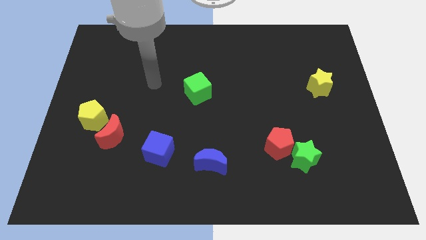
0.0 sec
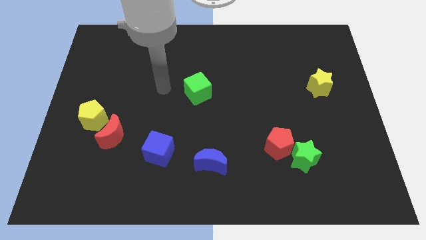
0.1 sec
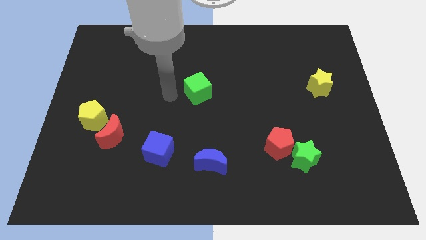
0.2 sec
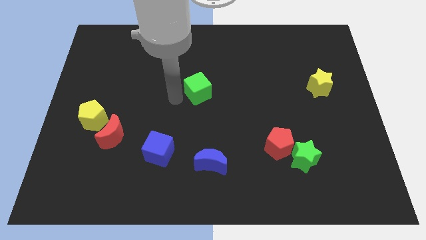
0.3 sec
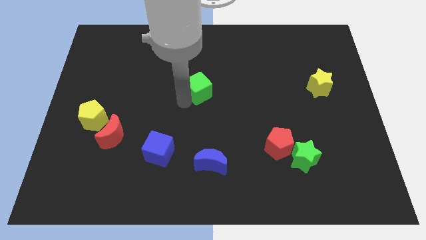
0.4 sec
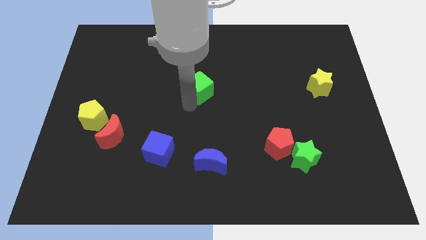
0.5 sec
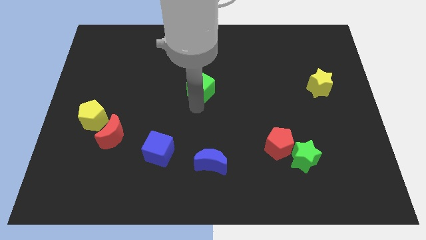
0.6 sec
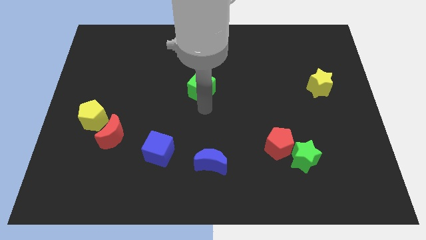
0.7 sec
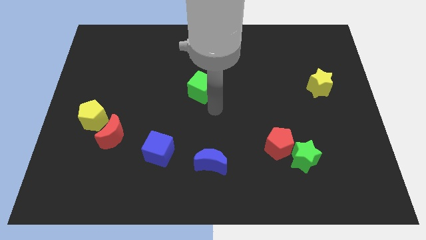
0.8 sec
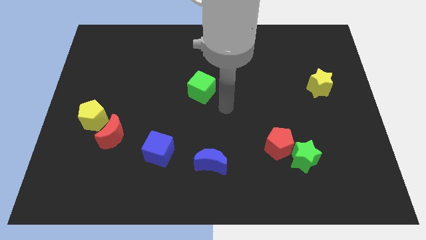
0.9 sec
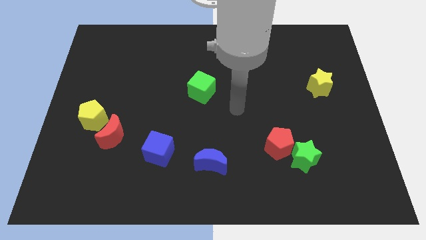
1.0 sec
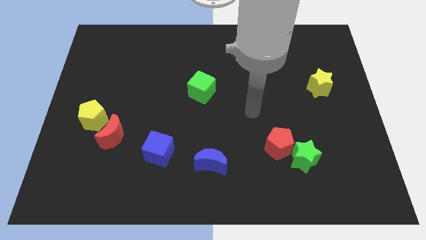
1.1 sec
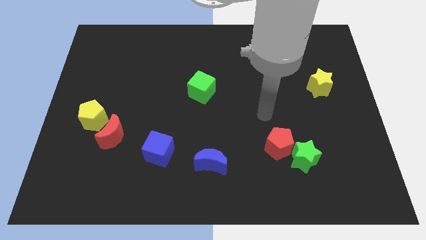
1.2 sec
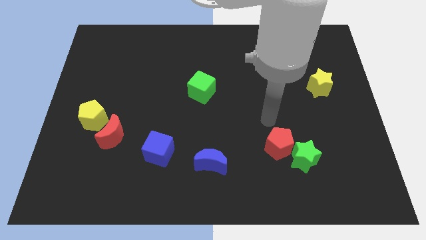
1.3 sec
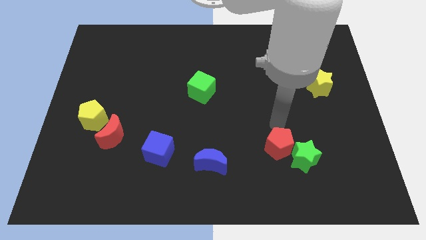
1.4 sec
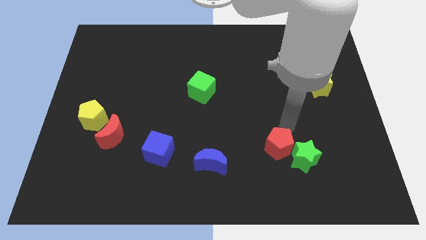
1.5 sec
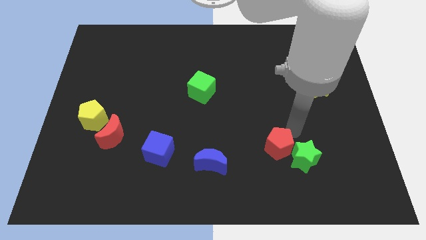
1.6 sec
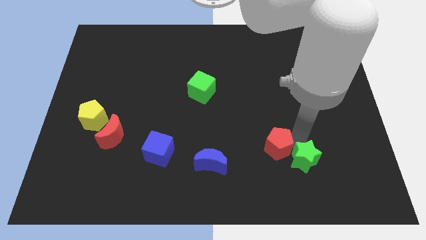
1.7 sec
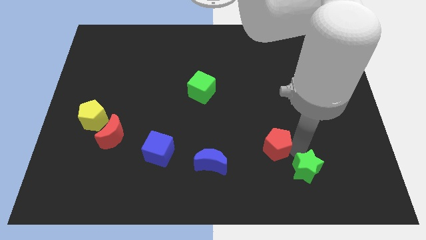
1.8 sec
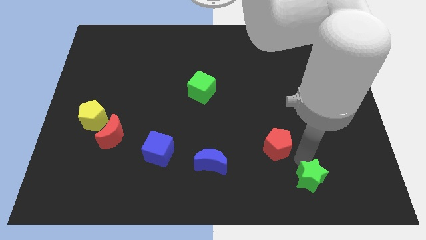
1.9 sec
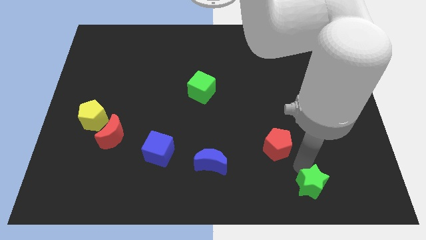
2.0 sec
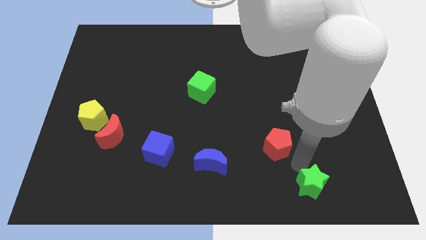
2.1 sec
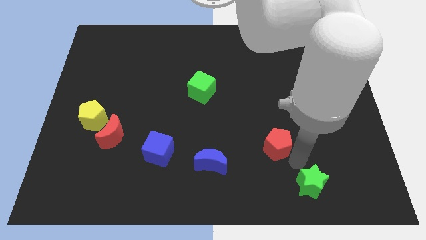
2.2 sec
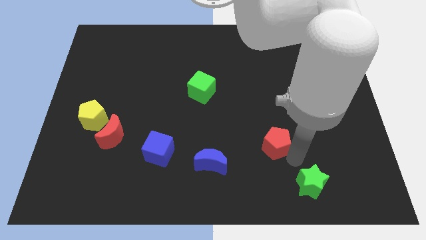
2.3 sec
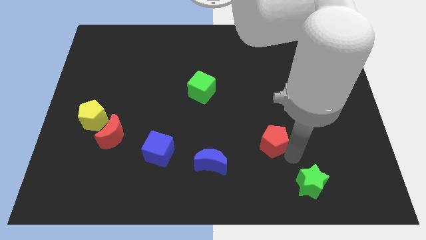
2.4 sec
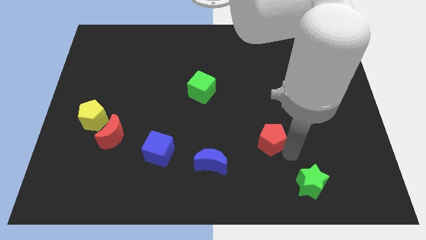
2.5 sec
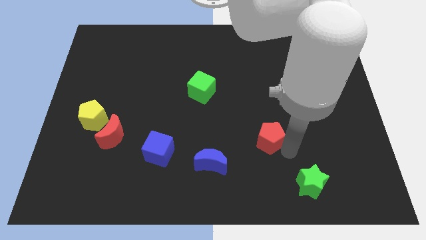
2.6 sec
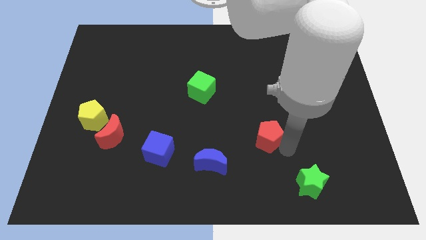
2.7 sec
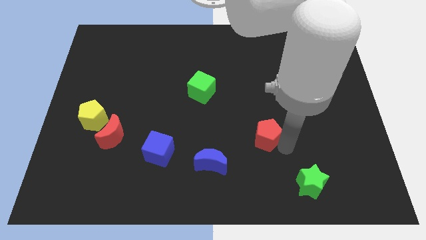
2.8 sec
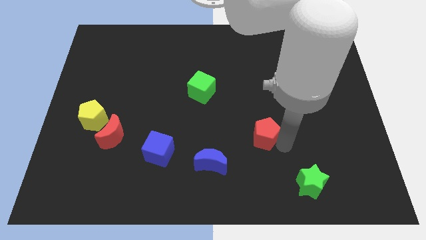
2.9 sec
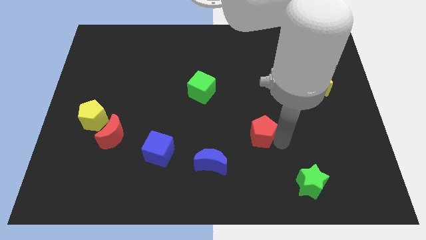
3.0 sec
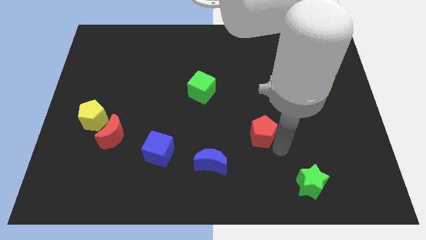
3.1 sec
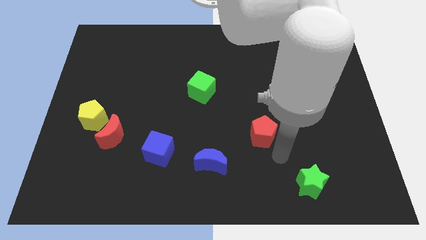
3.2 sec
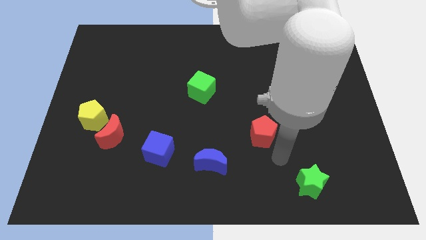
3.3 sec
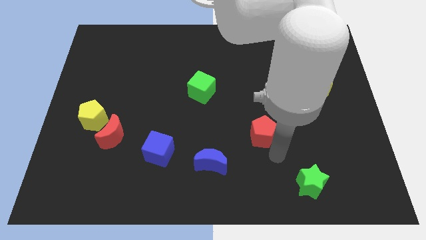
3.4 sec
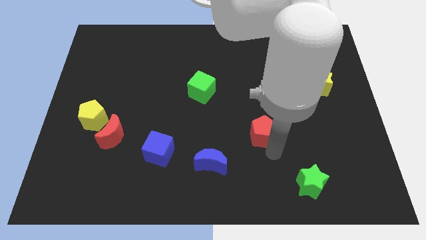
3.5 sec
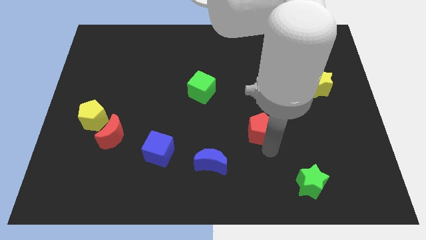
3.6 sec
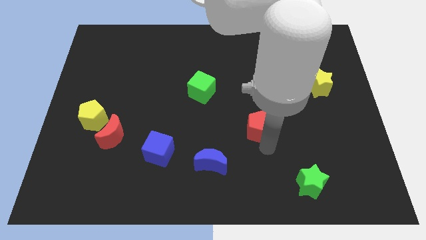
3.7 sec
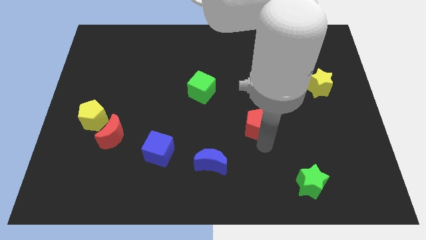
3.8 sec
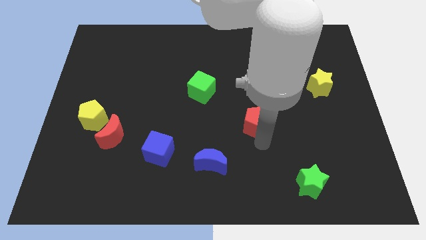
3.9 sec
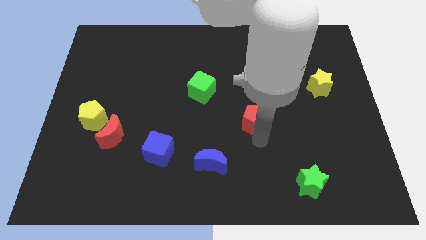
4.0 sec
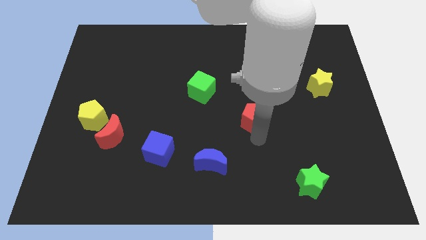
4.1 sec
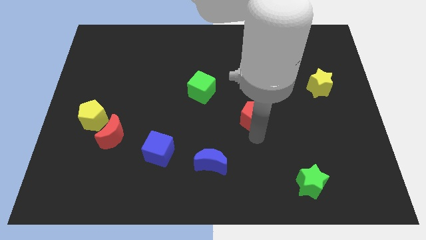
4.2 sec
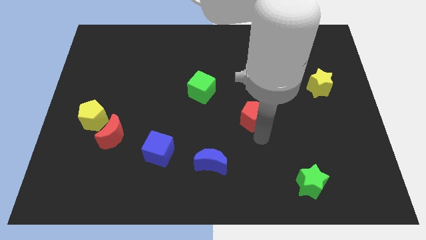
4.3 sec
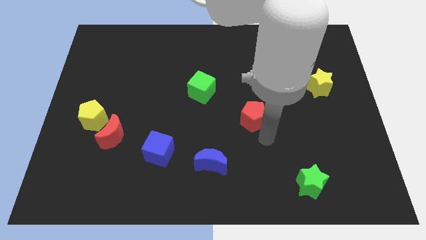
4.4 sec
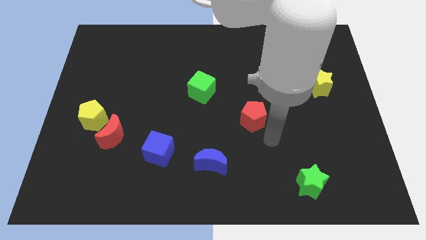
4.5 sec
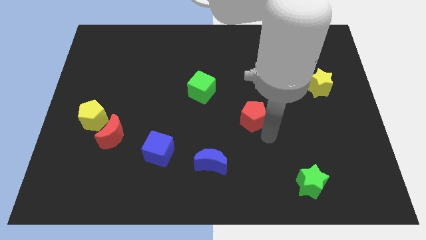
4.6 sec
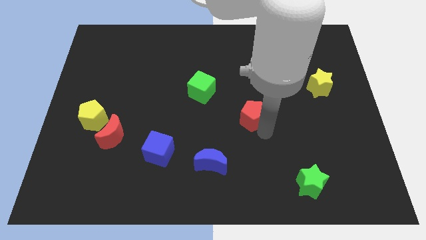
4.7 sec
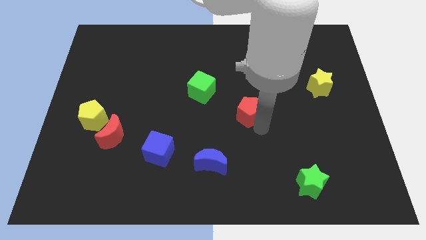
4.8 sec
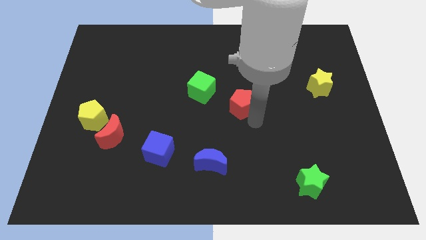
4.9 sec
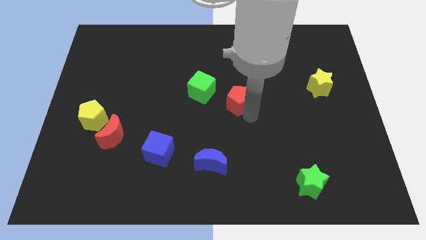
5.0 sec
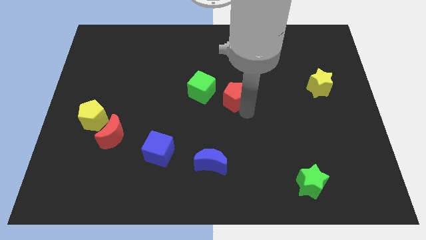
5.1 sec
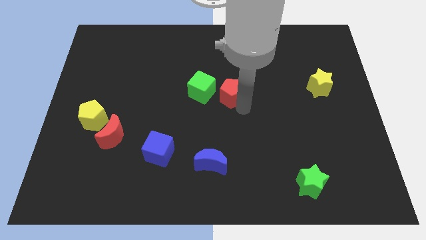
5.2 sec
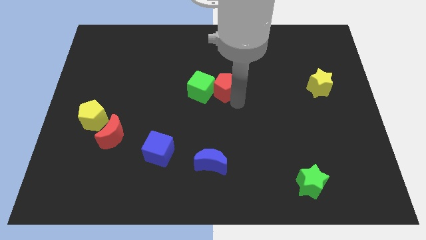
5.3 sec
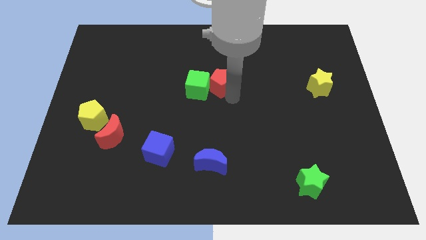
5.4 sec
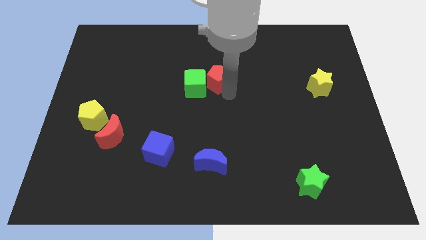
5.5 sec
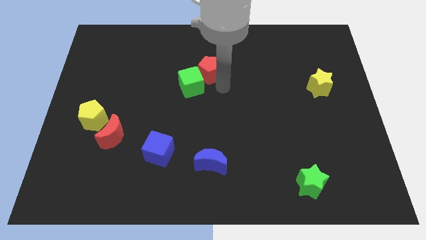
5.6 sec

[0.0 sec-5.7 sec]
slide the red pentagon above the green cube

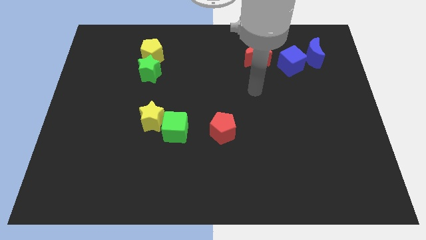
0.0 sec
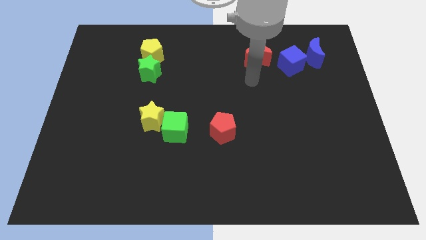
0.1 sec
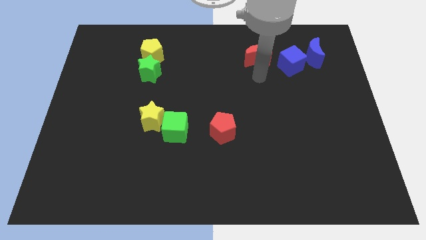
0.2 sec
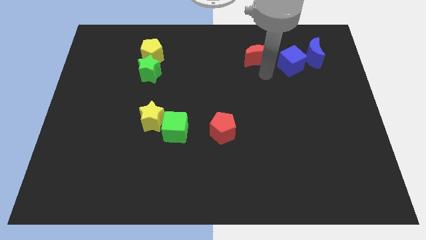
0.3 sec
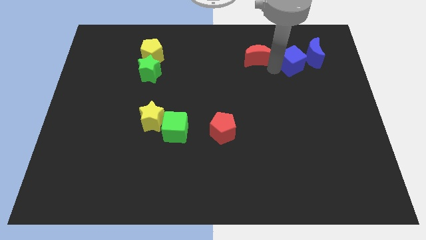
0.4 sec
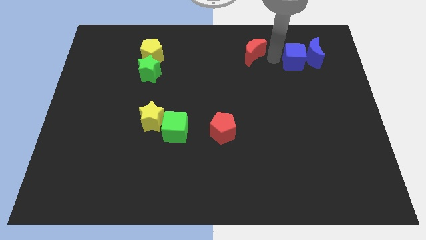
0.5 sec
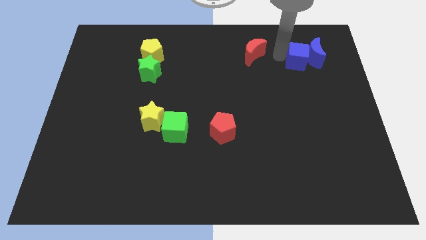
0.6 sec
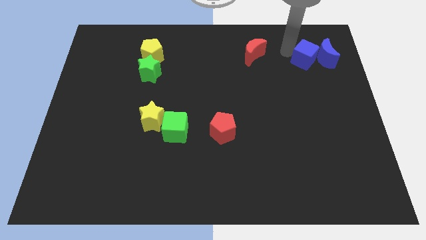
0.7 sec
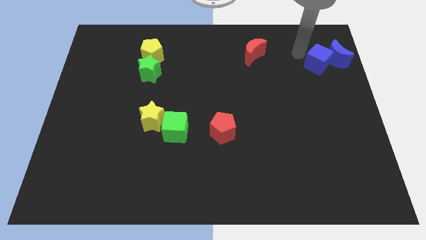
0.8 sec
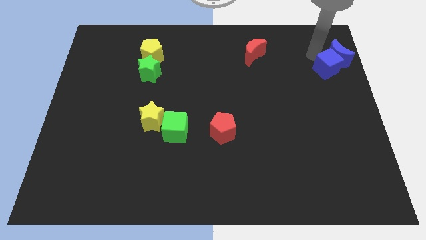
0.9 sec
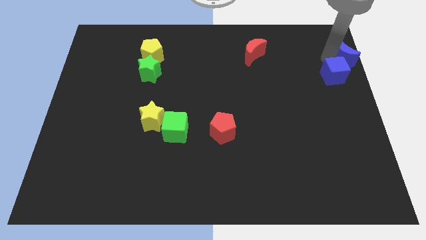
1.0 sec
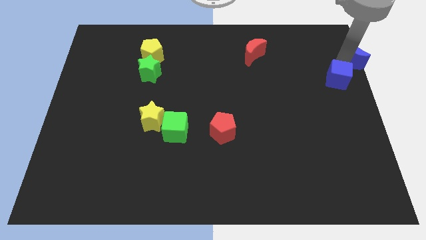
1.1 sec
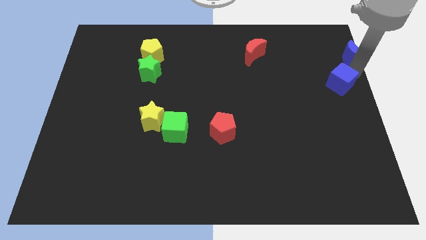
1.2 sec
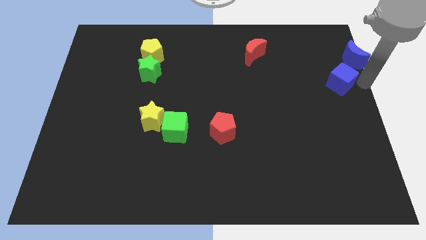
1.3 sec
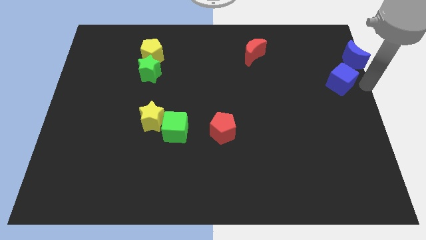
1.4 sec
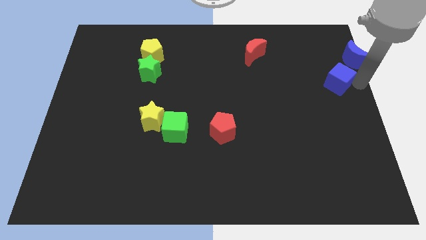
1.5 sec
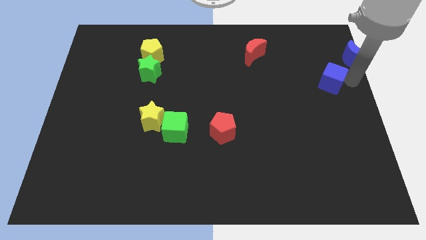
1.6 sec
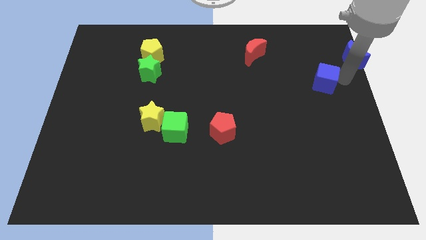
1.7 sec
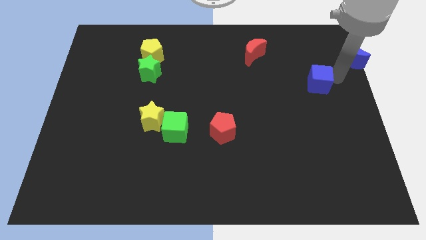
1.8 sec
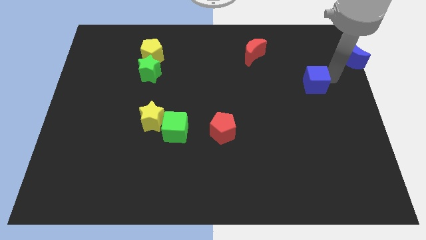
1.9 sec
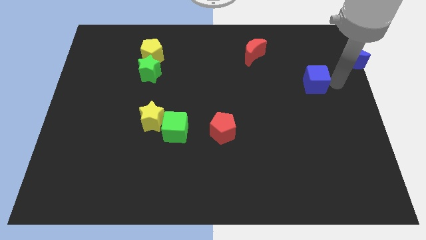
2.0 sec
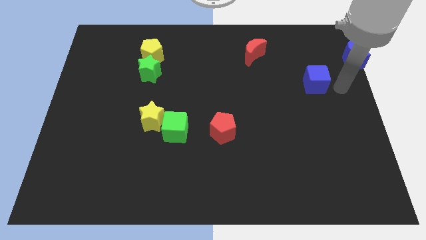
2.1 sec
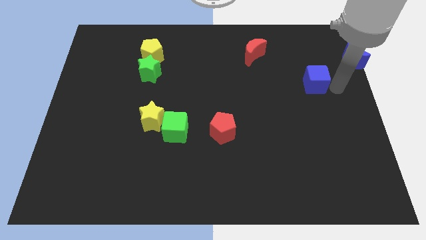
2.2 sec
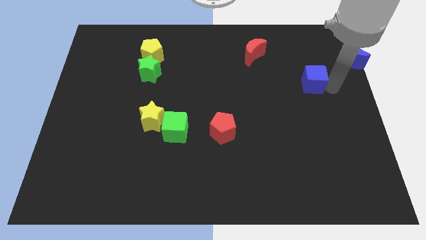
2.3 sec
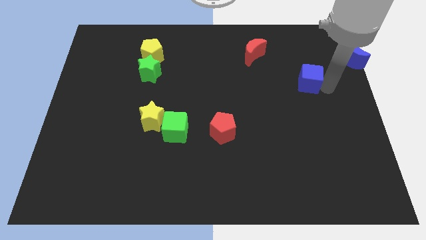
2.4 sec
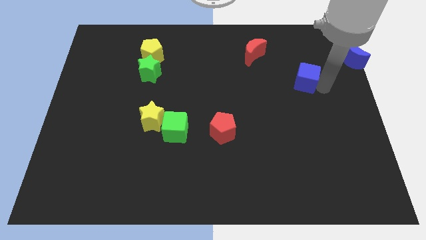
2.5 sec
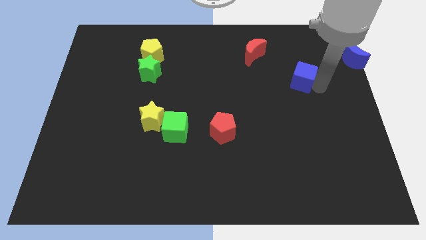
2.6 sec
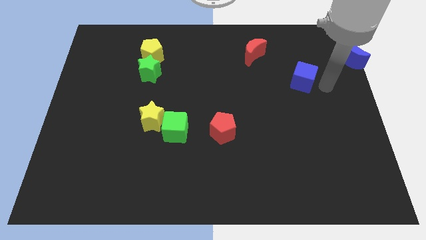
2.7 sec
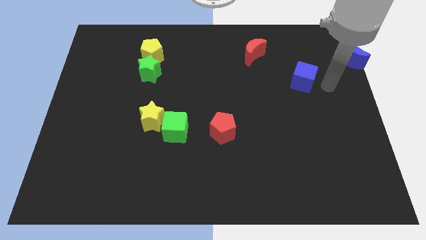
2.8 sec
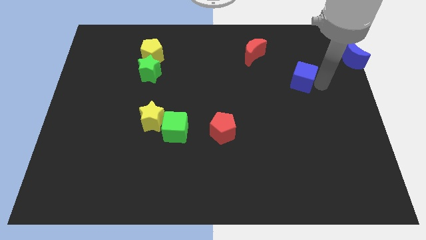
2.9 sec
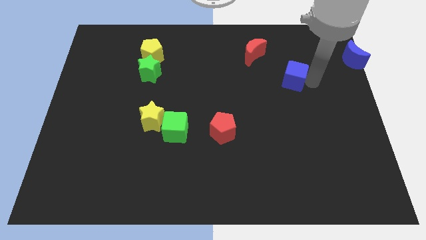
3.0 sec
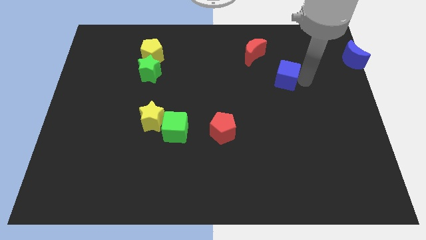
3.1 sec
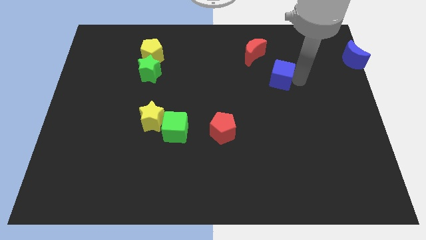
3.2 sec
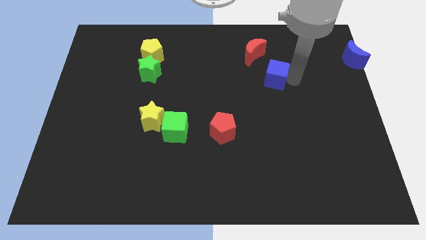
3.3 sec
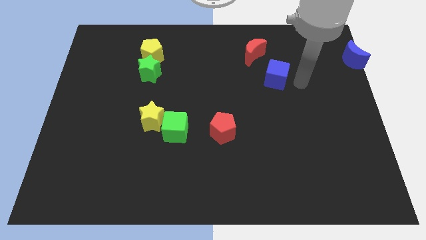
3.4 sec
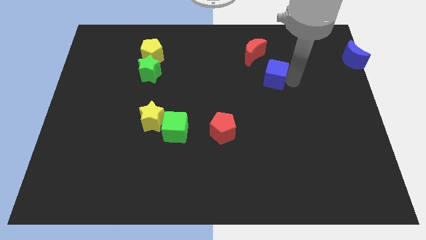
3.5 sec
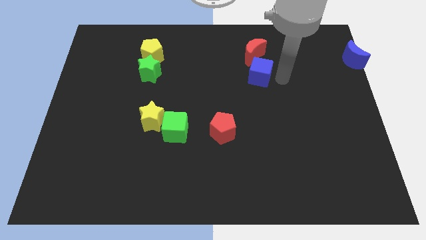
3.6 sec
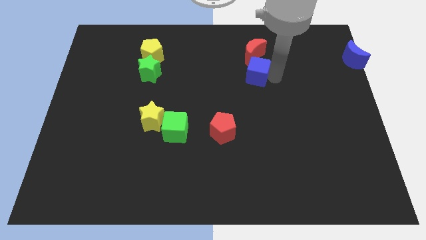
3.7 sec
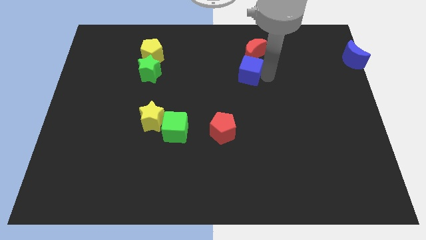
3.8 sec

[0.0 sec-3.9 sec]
put the blue cube diagonally down and to the left of the red moon
